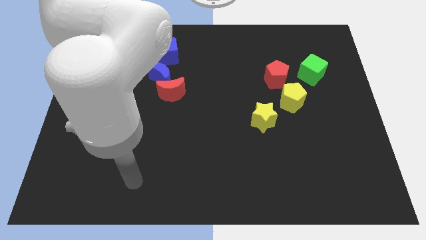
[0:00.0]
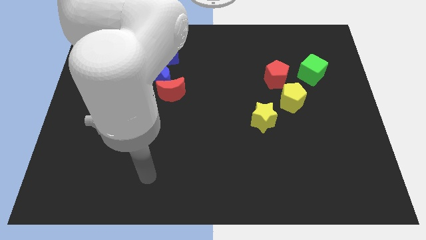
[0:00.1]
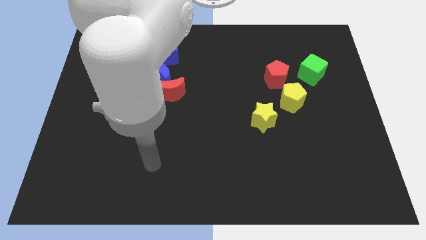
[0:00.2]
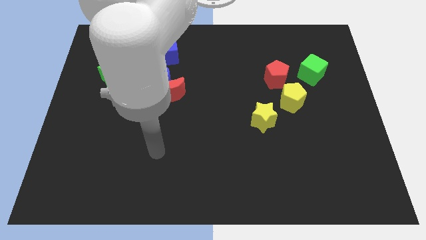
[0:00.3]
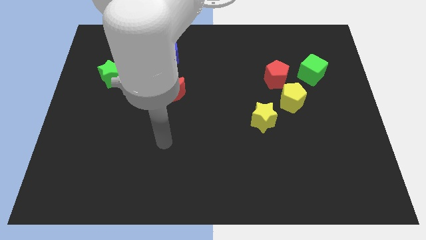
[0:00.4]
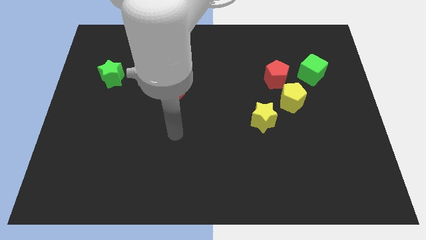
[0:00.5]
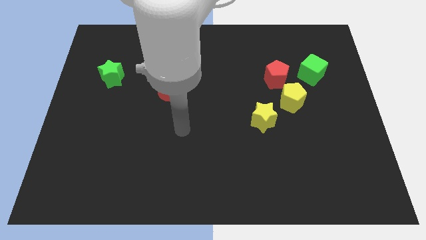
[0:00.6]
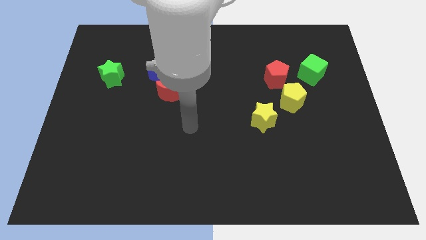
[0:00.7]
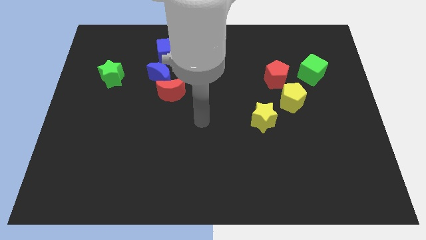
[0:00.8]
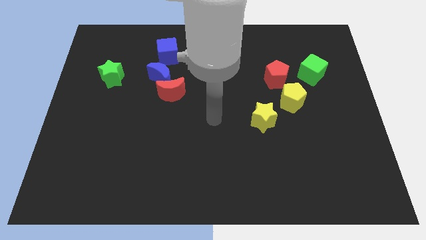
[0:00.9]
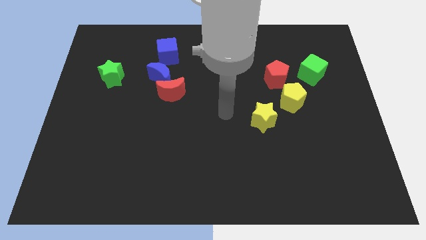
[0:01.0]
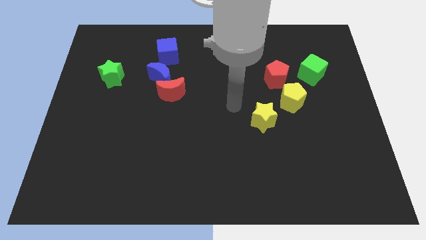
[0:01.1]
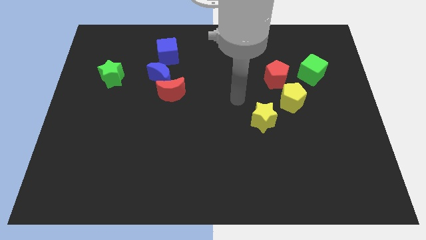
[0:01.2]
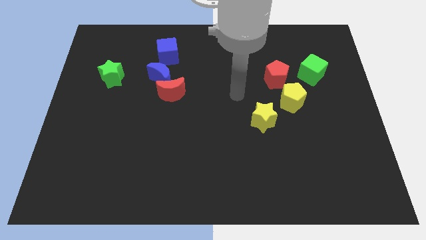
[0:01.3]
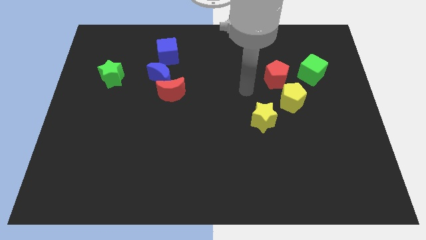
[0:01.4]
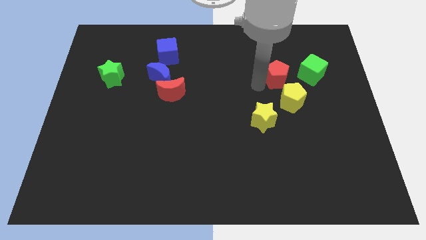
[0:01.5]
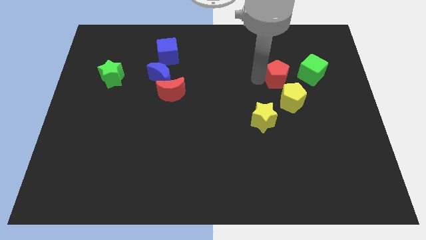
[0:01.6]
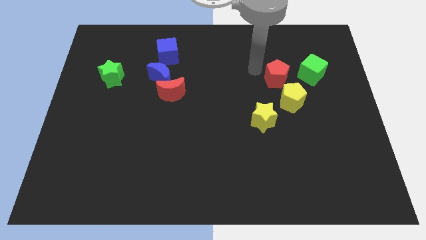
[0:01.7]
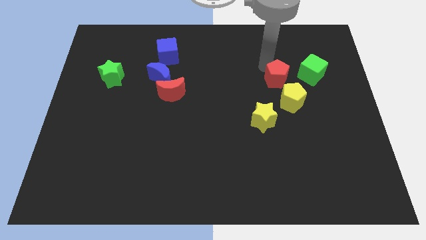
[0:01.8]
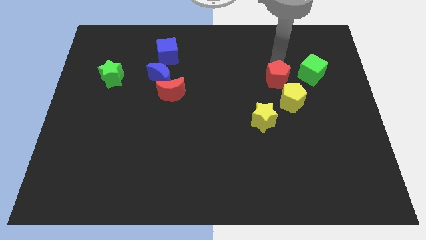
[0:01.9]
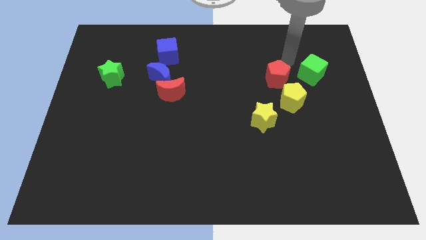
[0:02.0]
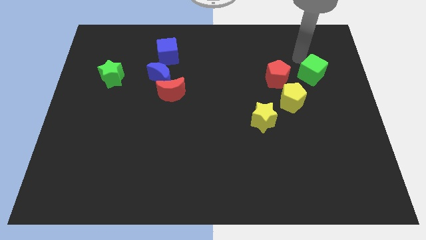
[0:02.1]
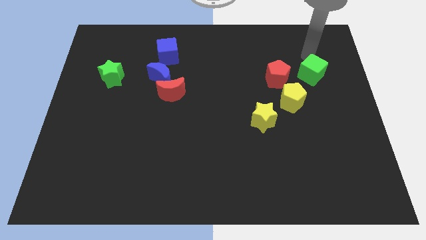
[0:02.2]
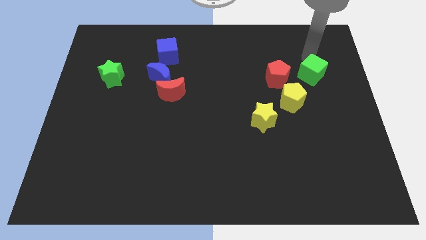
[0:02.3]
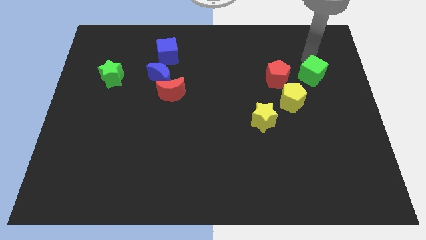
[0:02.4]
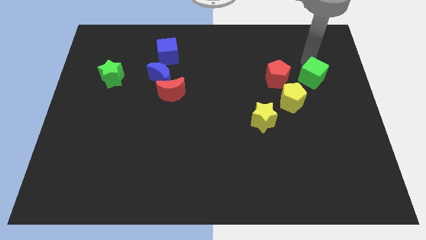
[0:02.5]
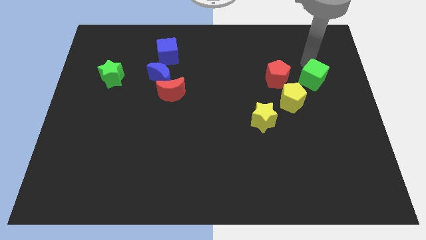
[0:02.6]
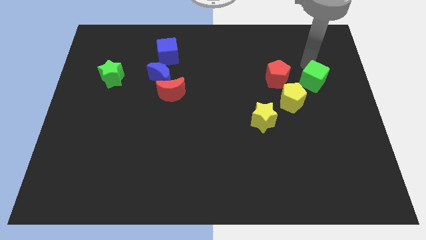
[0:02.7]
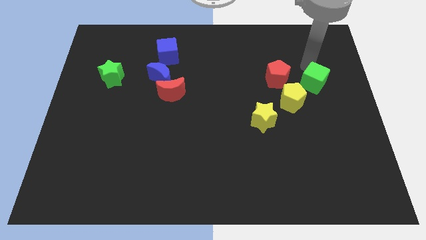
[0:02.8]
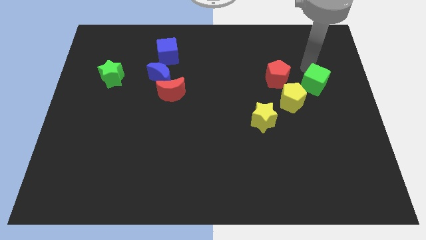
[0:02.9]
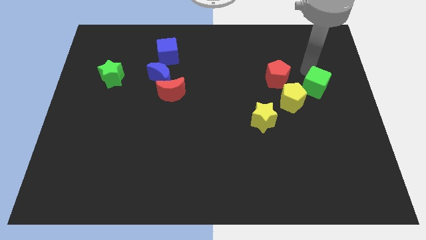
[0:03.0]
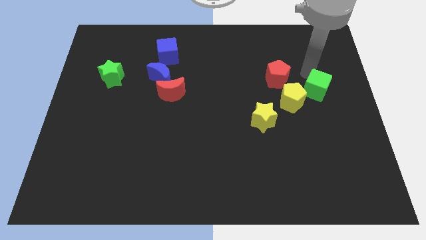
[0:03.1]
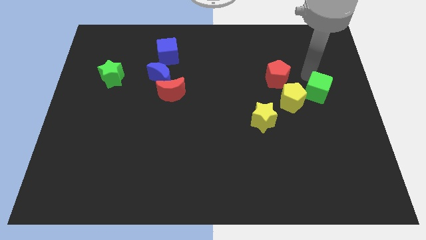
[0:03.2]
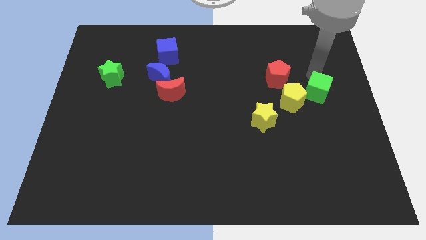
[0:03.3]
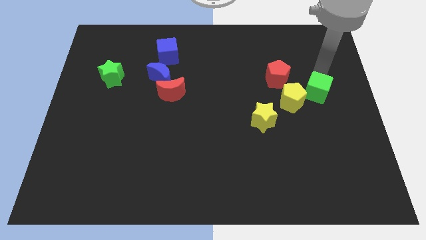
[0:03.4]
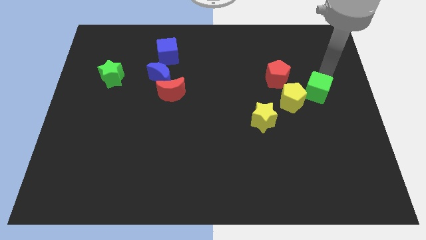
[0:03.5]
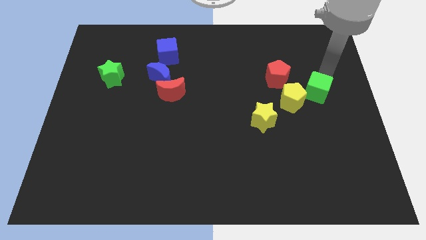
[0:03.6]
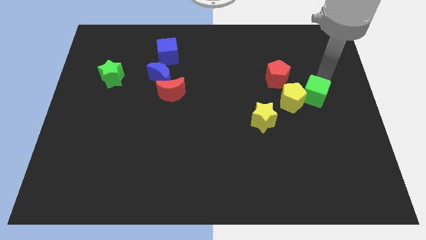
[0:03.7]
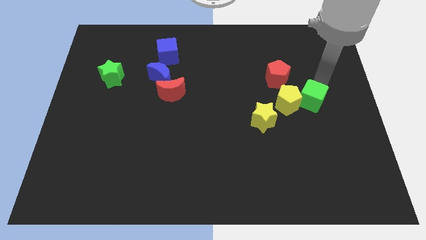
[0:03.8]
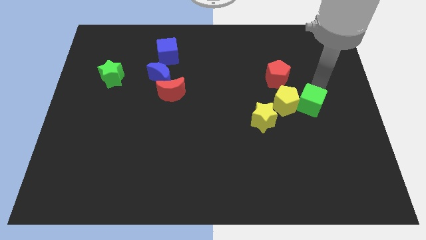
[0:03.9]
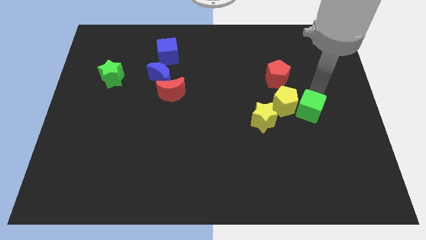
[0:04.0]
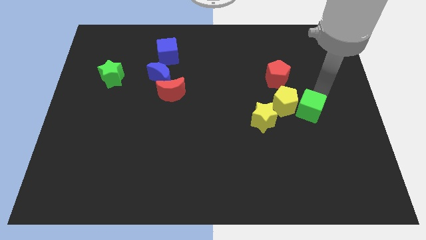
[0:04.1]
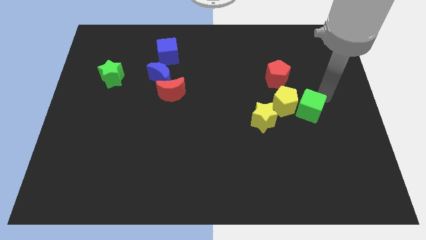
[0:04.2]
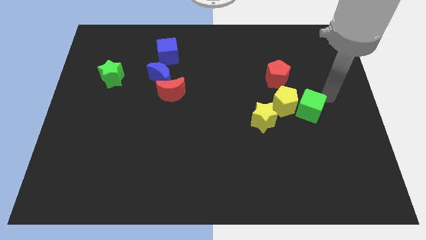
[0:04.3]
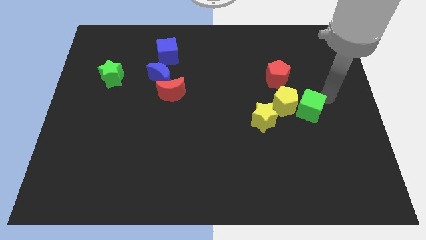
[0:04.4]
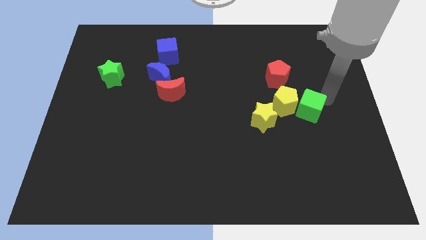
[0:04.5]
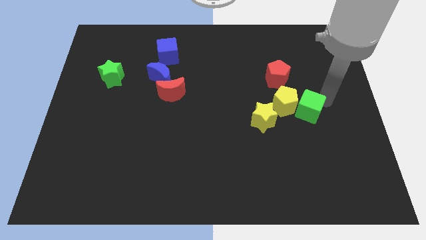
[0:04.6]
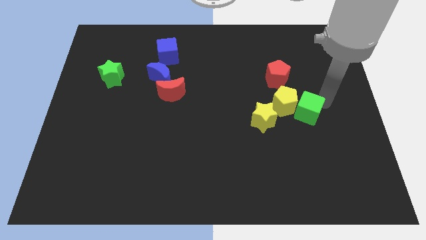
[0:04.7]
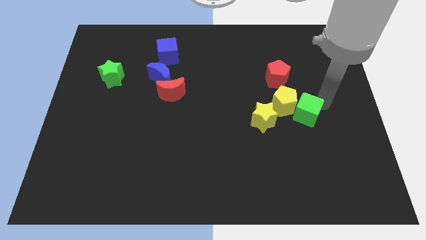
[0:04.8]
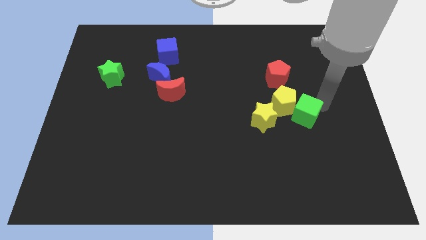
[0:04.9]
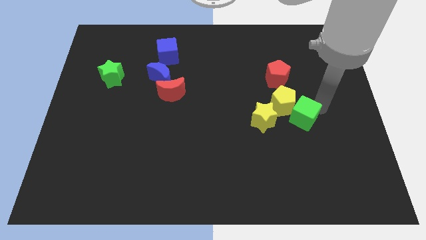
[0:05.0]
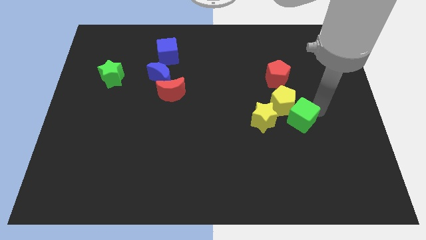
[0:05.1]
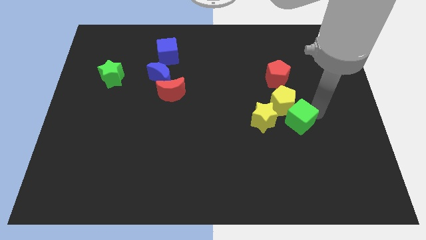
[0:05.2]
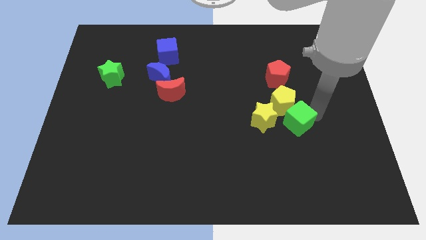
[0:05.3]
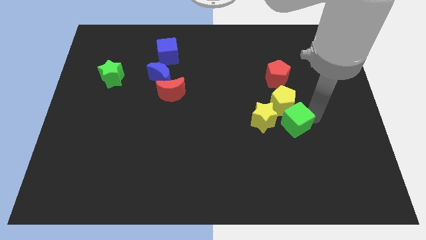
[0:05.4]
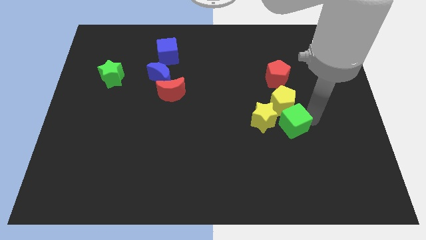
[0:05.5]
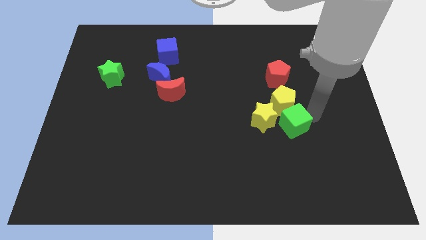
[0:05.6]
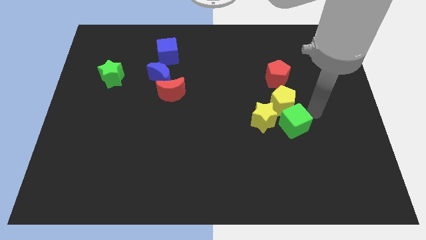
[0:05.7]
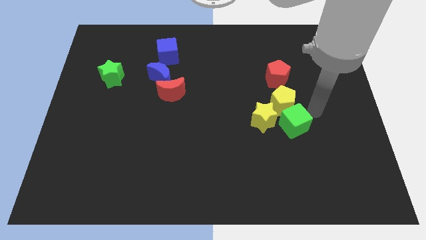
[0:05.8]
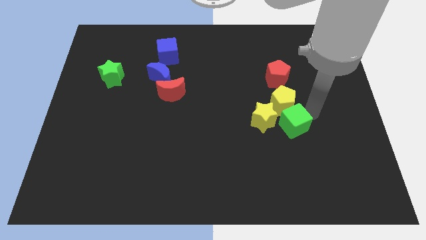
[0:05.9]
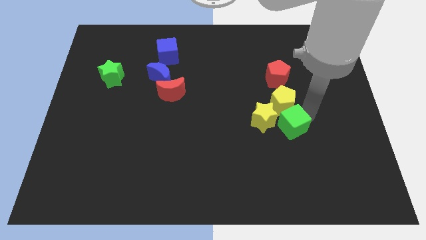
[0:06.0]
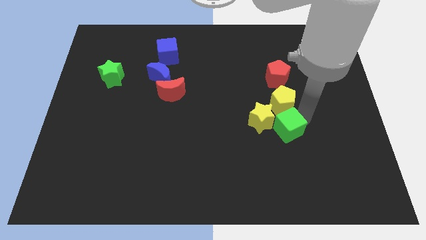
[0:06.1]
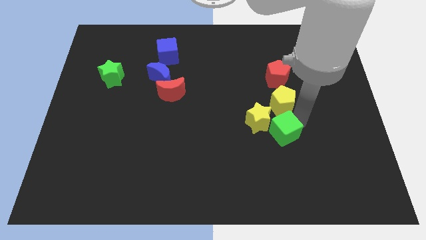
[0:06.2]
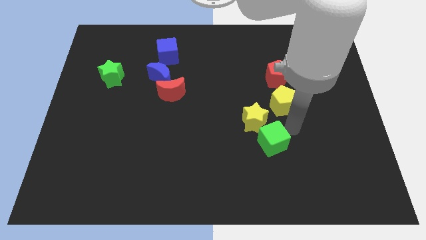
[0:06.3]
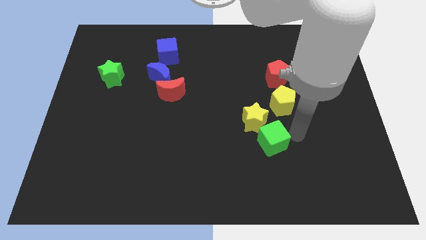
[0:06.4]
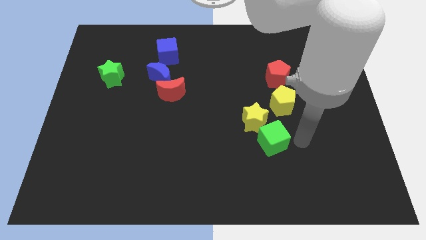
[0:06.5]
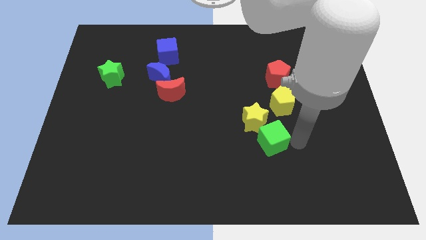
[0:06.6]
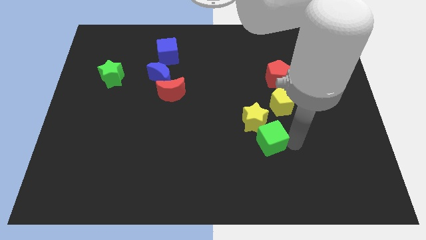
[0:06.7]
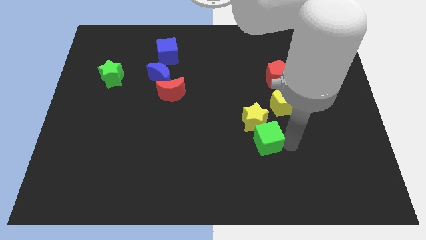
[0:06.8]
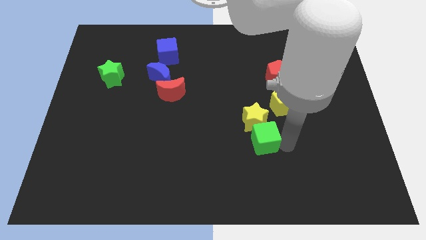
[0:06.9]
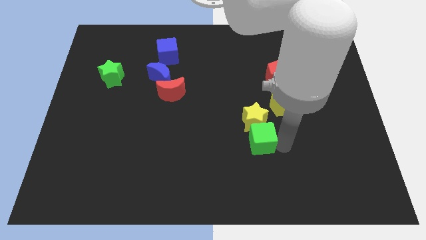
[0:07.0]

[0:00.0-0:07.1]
move the green cube to the bottom left of the yellow star

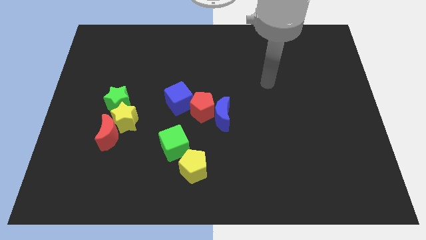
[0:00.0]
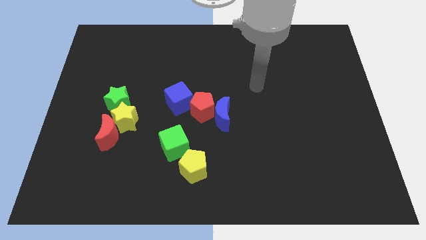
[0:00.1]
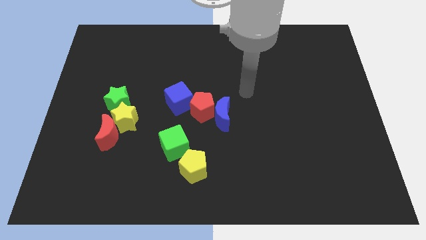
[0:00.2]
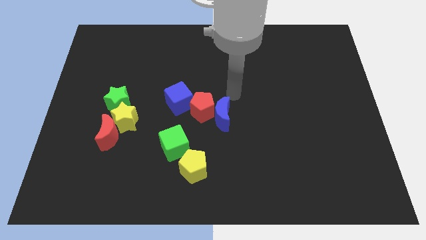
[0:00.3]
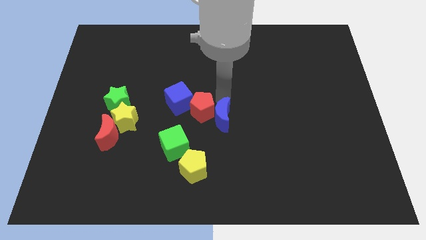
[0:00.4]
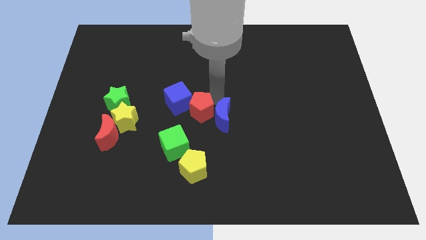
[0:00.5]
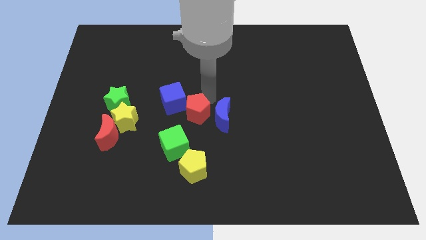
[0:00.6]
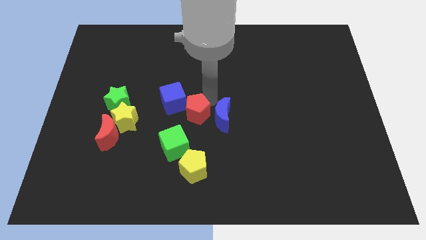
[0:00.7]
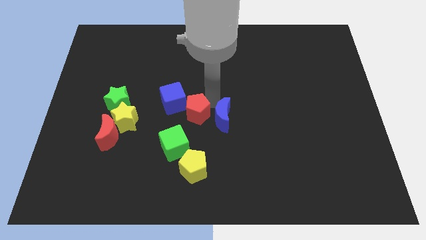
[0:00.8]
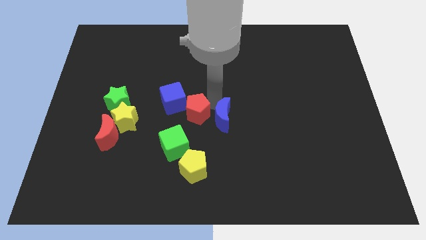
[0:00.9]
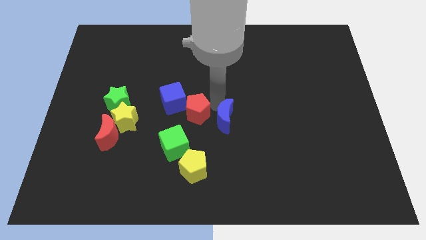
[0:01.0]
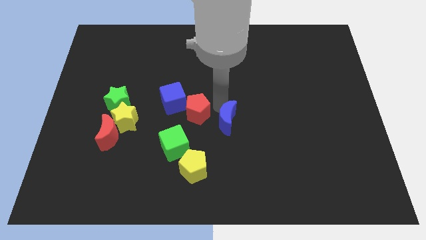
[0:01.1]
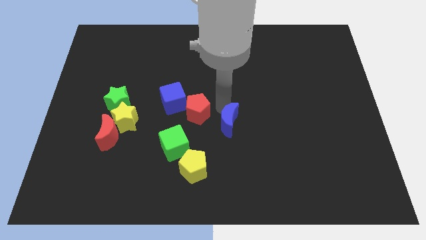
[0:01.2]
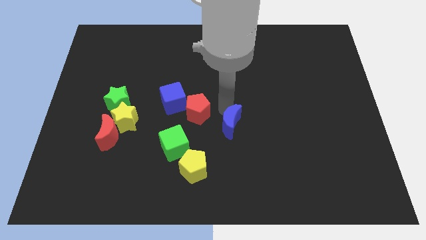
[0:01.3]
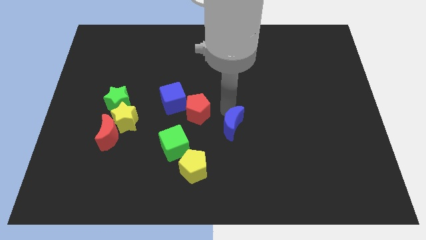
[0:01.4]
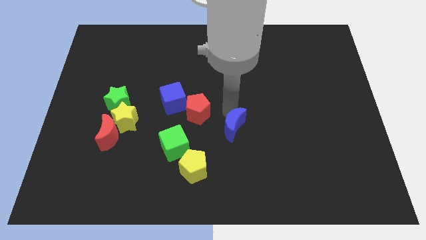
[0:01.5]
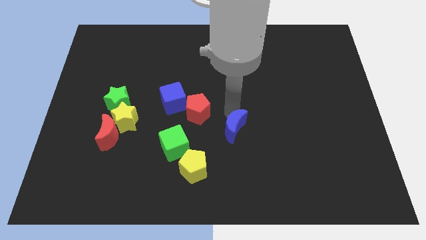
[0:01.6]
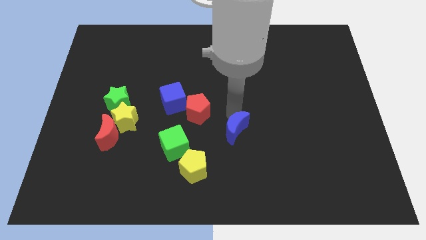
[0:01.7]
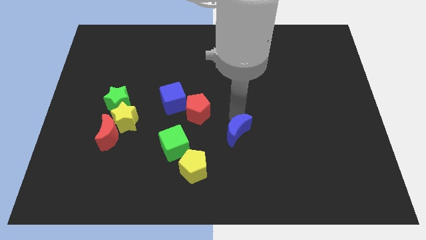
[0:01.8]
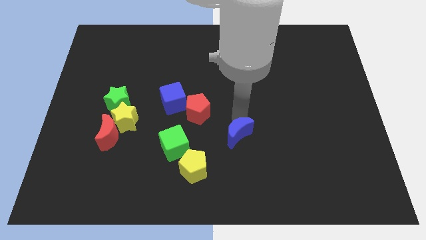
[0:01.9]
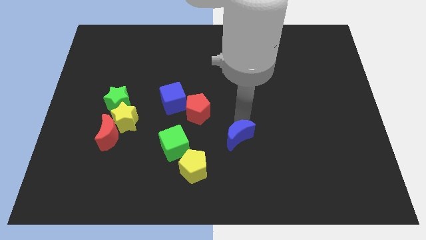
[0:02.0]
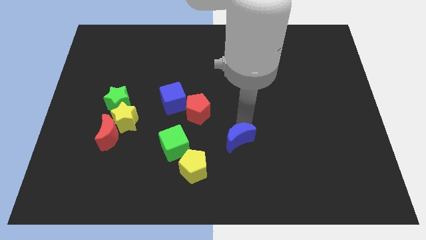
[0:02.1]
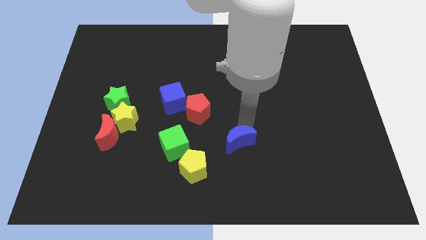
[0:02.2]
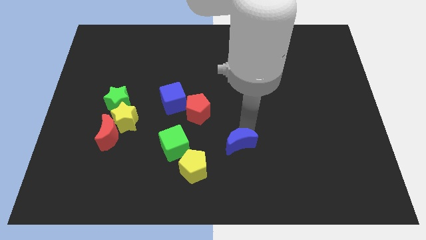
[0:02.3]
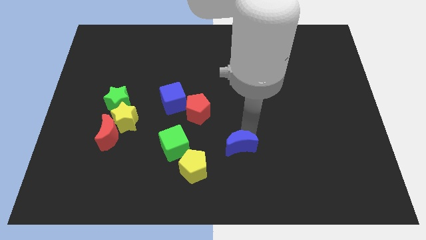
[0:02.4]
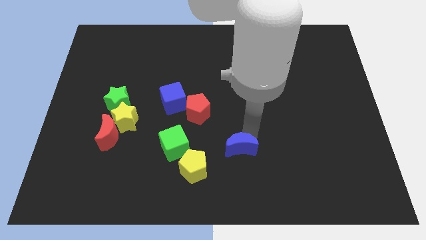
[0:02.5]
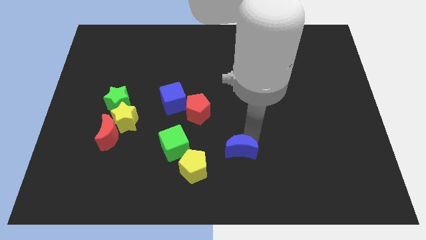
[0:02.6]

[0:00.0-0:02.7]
push the blue moon right of the yellow pentagon
